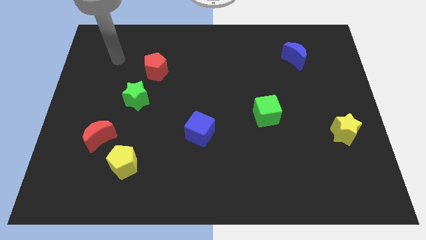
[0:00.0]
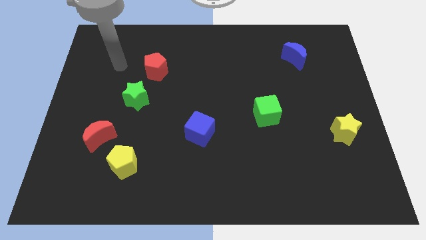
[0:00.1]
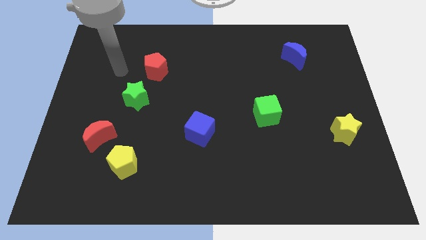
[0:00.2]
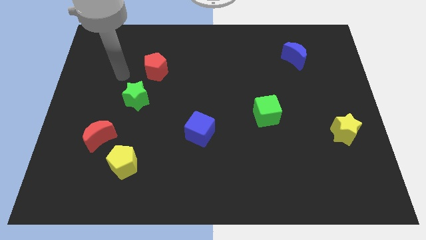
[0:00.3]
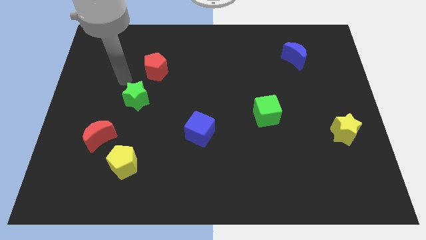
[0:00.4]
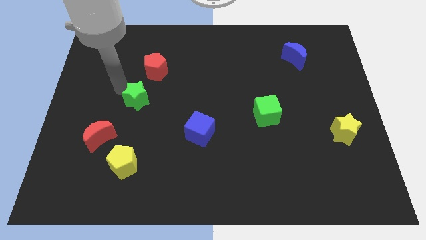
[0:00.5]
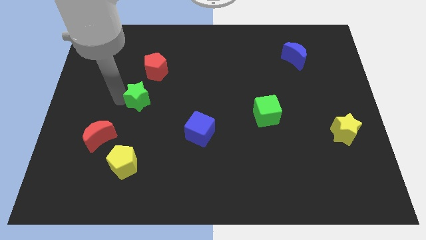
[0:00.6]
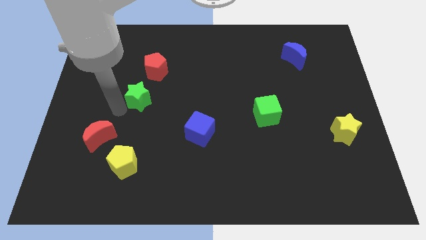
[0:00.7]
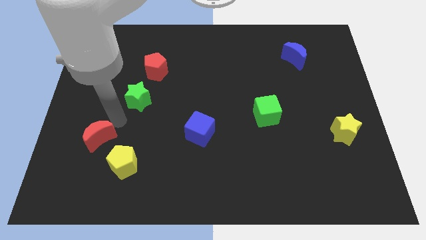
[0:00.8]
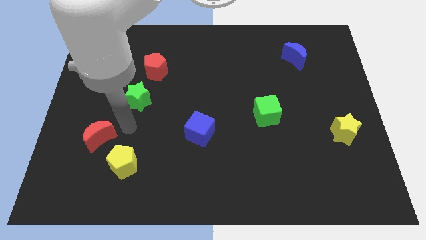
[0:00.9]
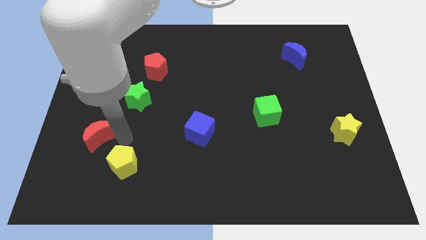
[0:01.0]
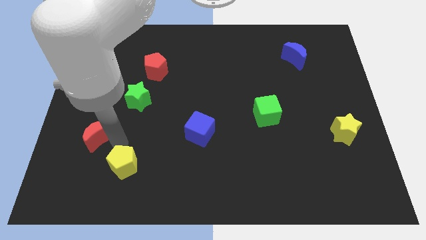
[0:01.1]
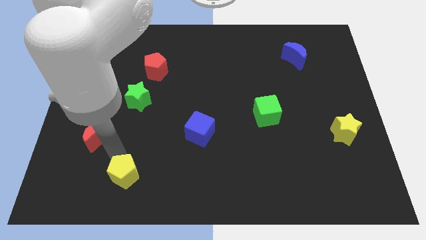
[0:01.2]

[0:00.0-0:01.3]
pull the red moon apart from the yellow pentagon

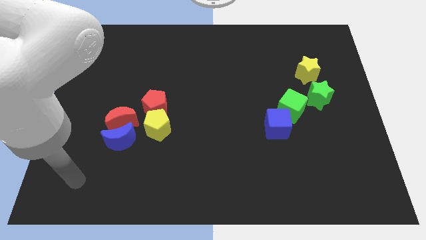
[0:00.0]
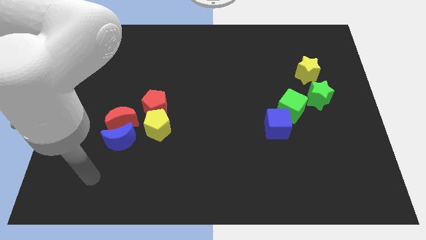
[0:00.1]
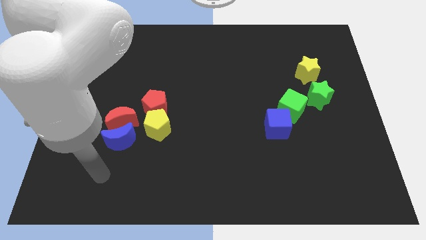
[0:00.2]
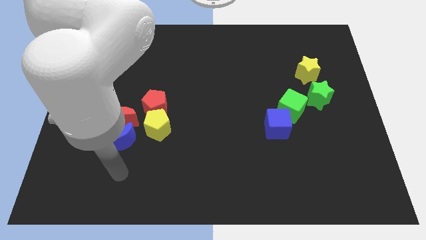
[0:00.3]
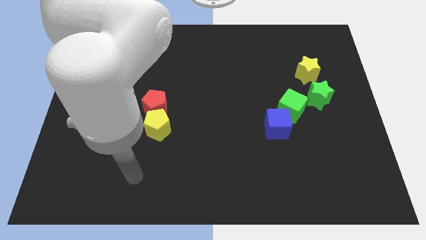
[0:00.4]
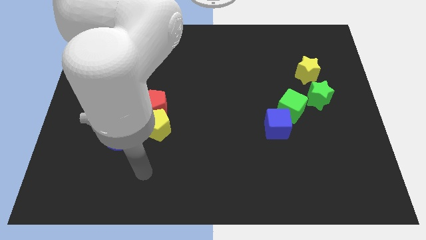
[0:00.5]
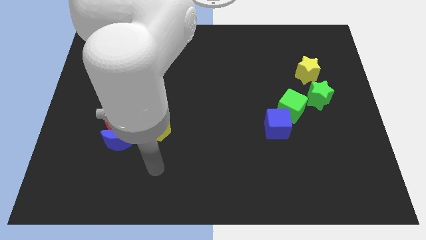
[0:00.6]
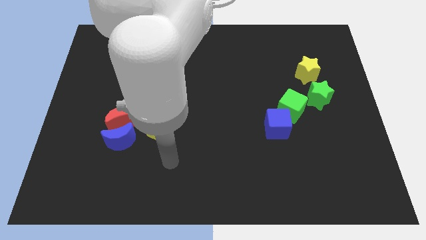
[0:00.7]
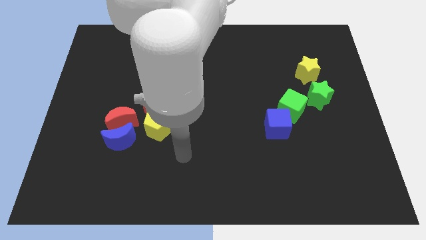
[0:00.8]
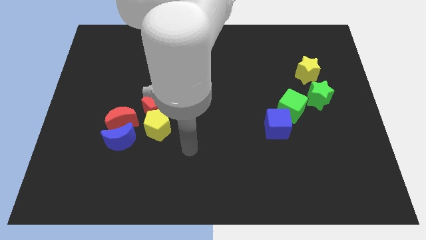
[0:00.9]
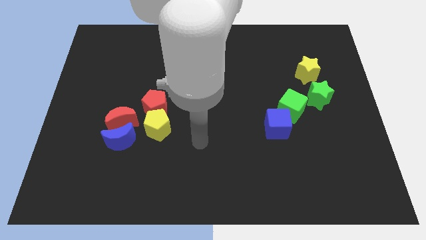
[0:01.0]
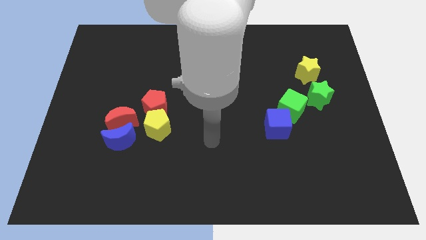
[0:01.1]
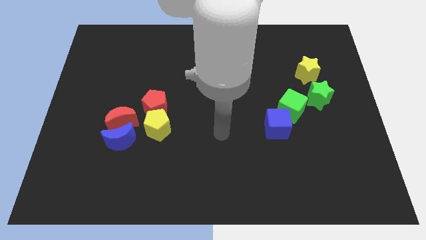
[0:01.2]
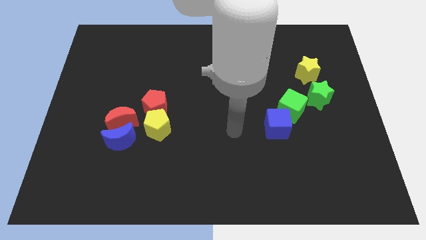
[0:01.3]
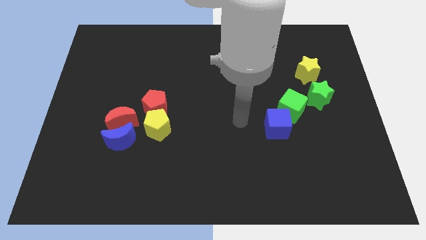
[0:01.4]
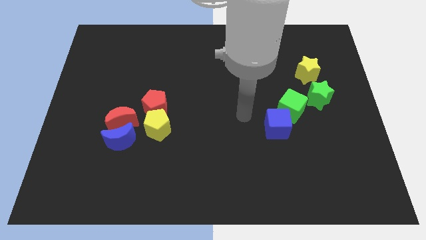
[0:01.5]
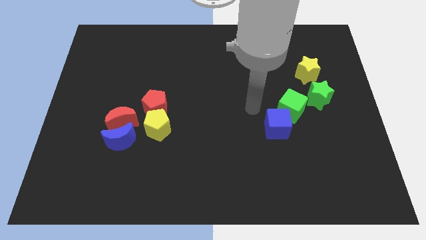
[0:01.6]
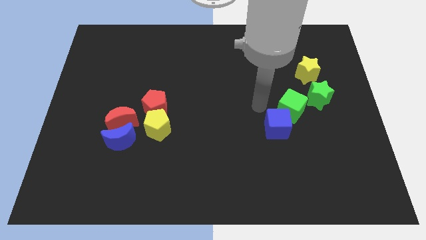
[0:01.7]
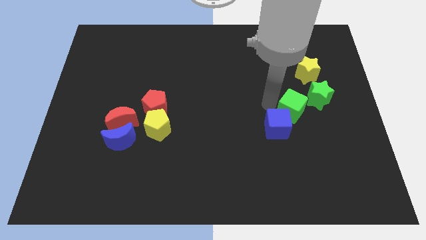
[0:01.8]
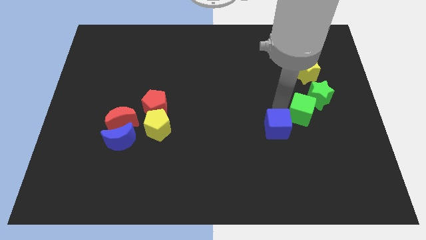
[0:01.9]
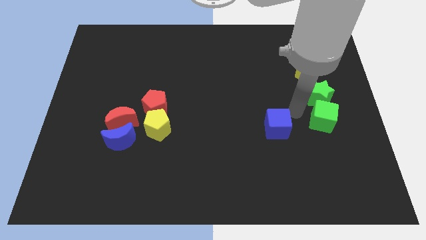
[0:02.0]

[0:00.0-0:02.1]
pull the blue cube apart from the green cube

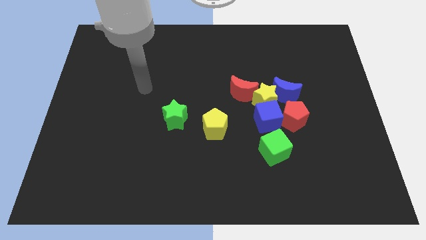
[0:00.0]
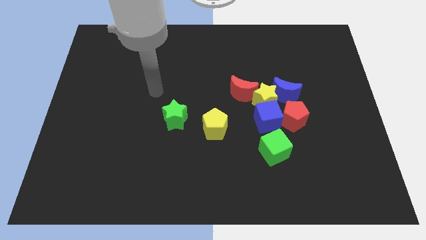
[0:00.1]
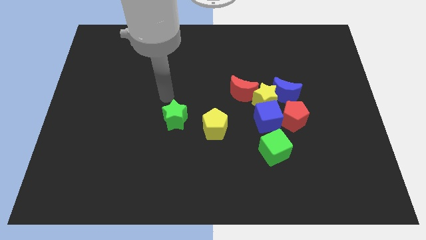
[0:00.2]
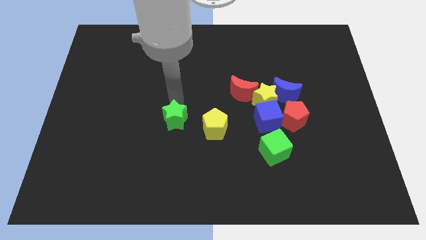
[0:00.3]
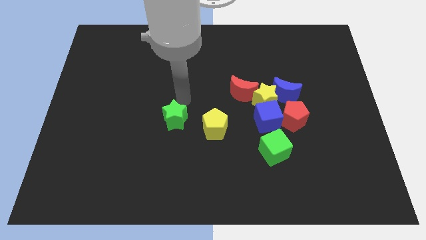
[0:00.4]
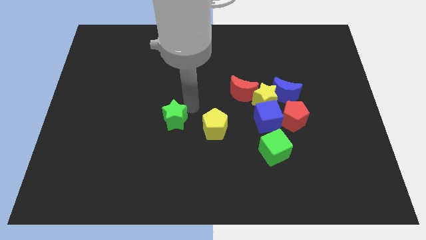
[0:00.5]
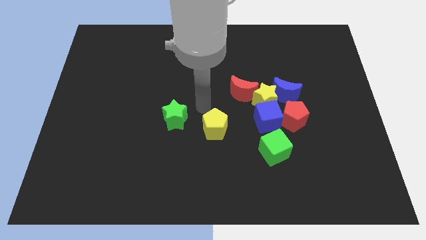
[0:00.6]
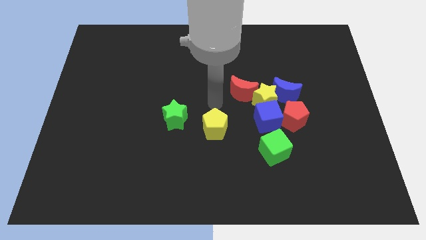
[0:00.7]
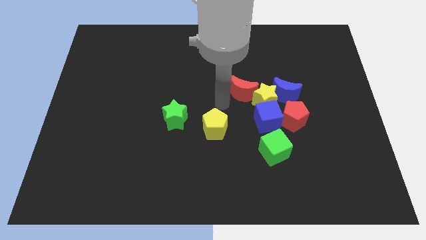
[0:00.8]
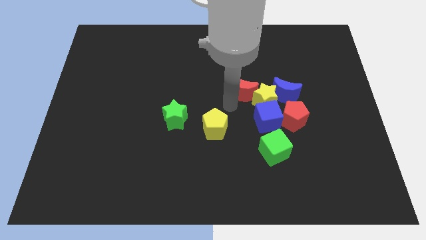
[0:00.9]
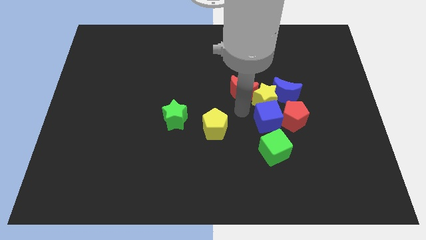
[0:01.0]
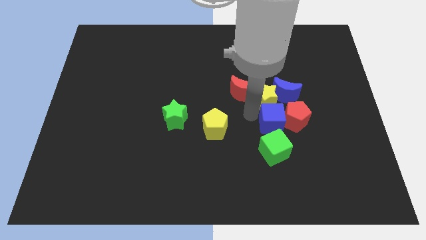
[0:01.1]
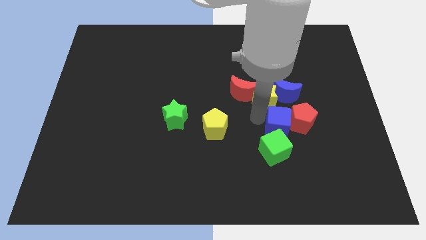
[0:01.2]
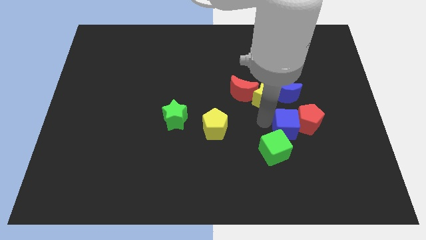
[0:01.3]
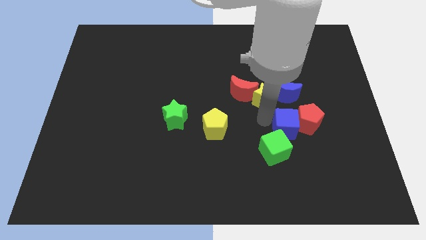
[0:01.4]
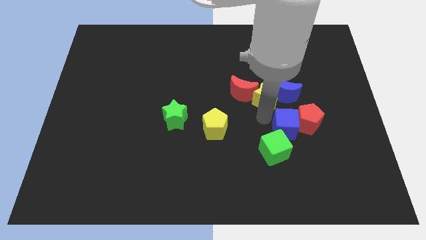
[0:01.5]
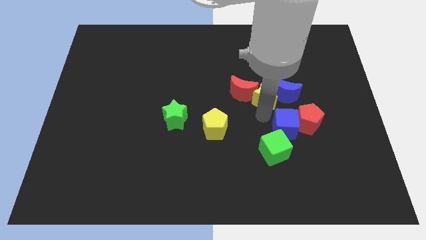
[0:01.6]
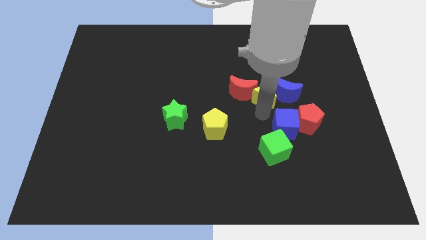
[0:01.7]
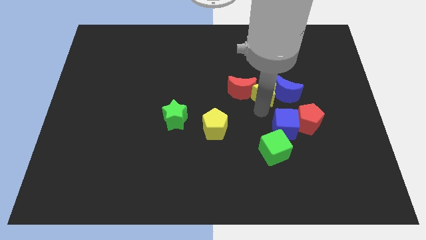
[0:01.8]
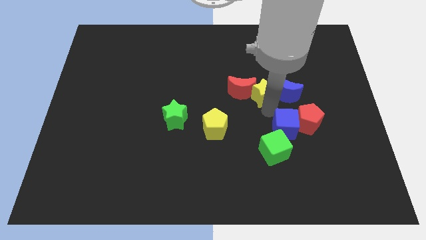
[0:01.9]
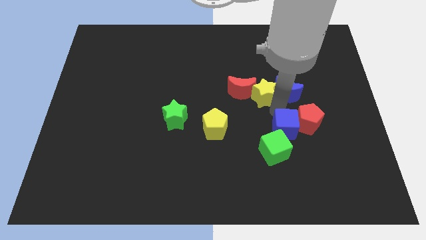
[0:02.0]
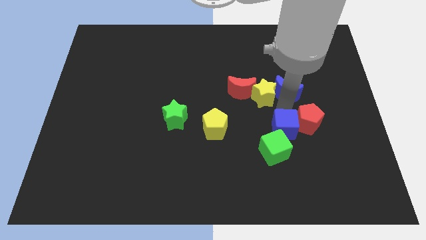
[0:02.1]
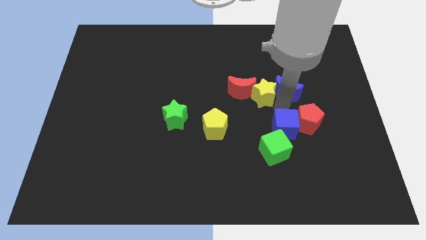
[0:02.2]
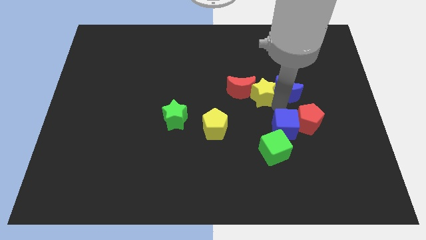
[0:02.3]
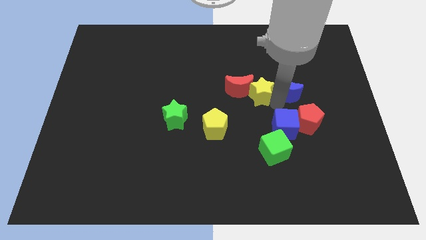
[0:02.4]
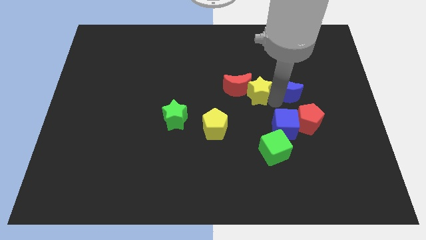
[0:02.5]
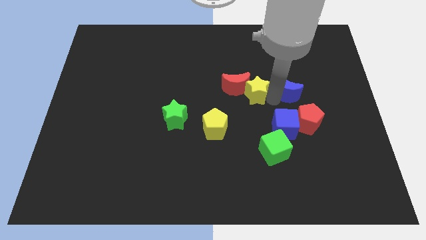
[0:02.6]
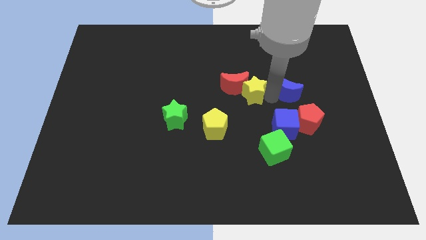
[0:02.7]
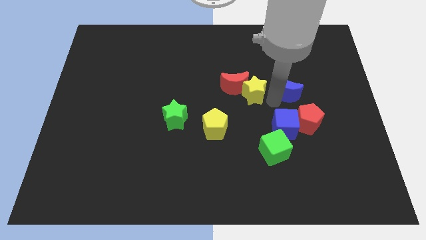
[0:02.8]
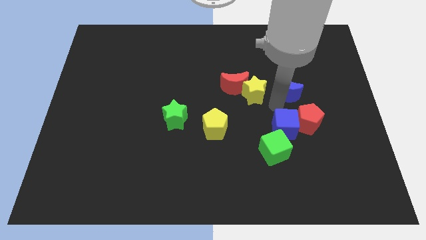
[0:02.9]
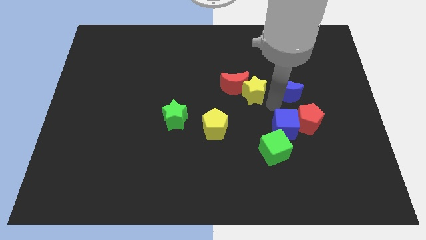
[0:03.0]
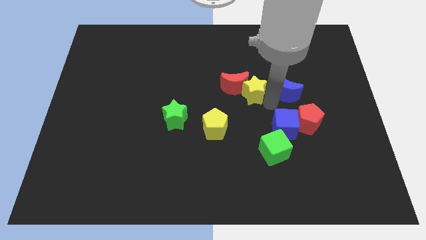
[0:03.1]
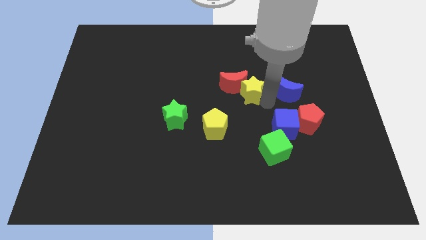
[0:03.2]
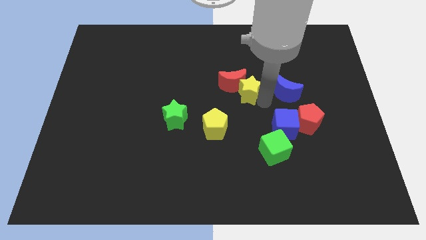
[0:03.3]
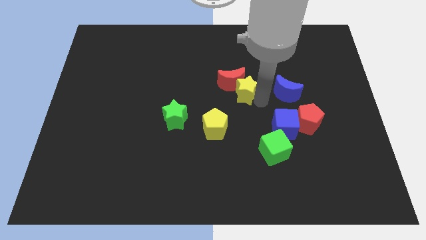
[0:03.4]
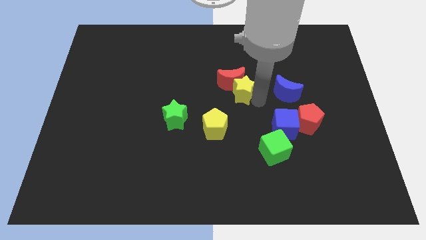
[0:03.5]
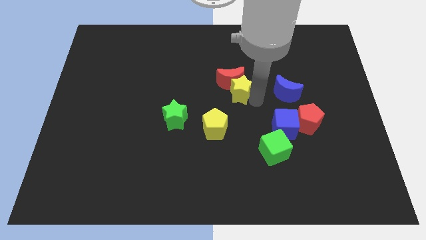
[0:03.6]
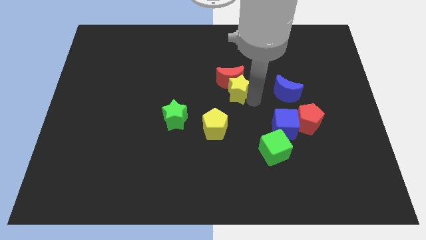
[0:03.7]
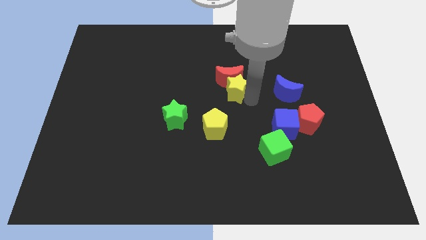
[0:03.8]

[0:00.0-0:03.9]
separate the yellow star from the group

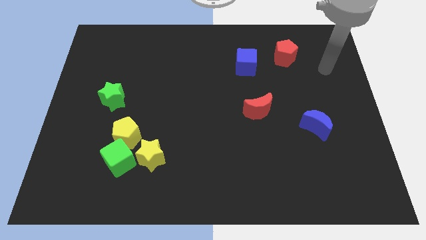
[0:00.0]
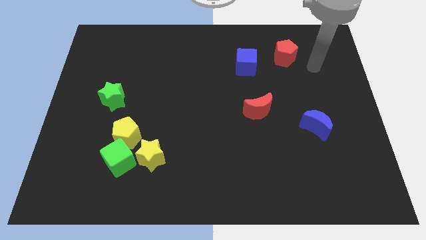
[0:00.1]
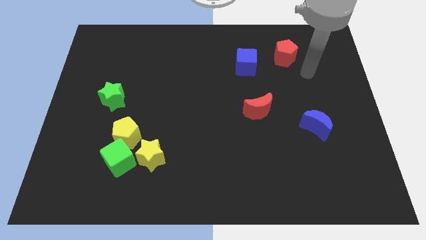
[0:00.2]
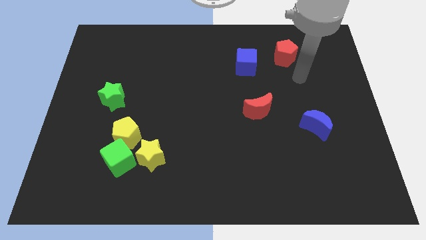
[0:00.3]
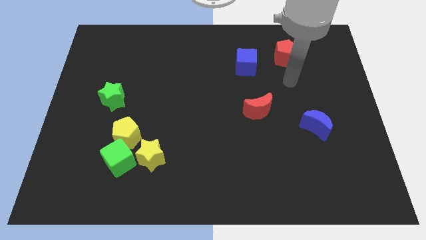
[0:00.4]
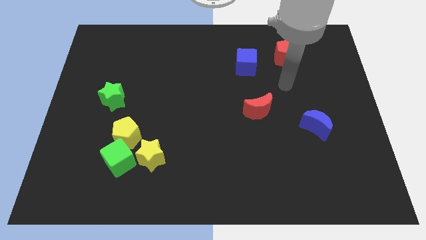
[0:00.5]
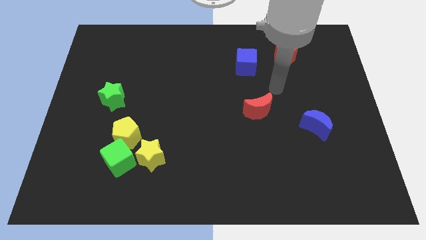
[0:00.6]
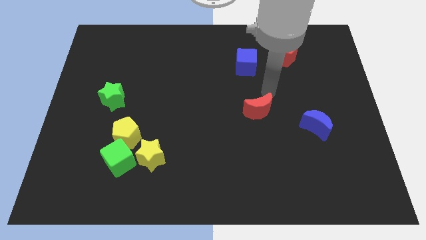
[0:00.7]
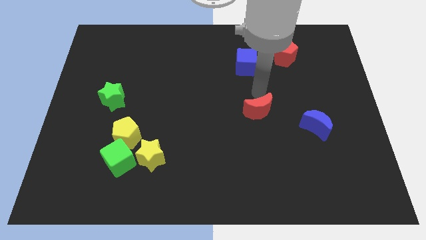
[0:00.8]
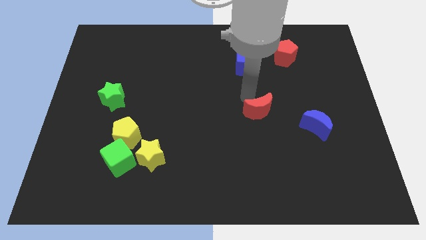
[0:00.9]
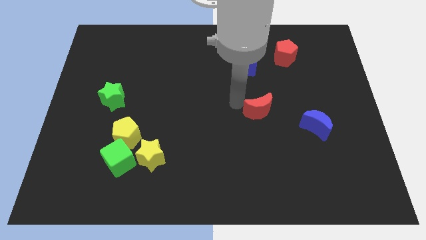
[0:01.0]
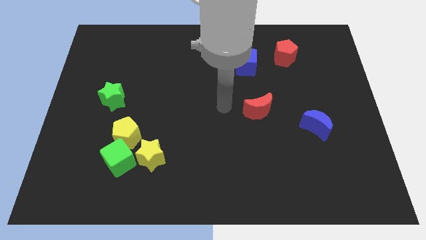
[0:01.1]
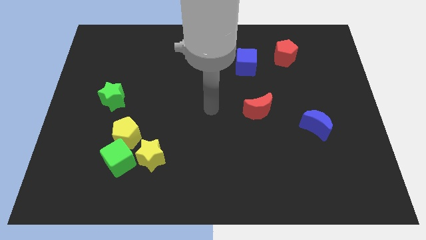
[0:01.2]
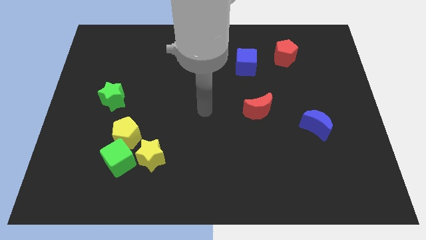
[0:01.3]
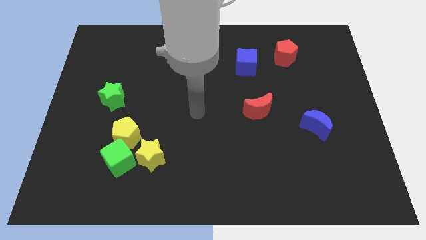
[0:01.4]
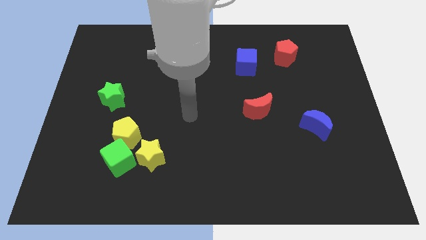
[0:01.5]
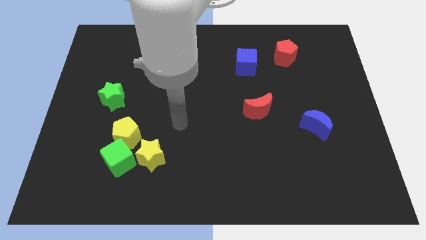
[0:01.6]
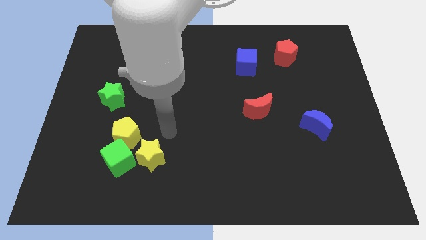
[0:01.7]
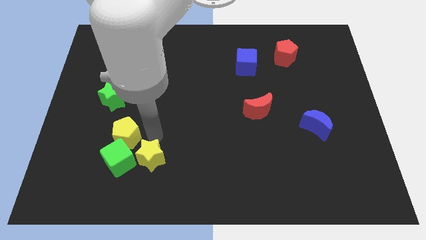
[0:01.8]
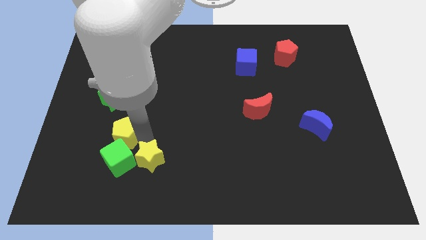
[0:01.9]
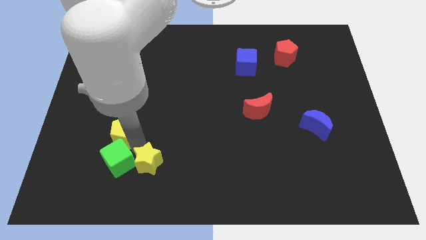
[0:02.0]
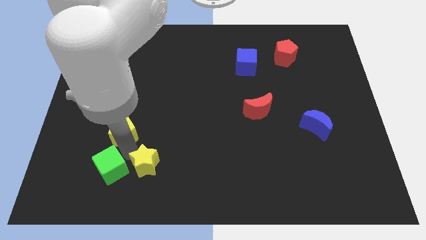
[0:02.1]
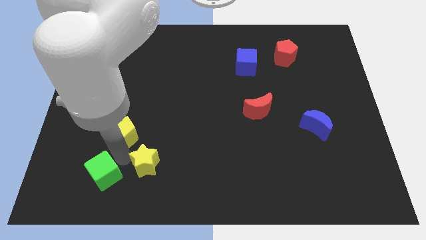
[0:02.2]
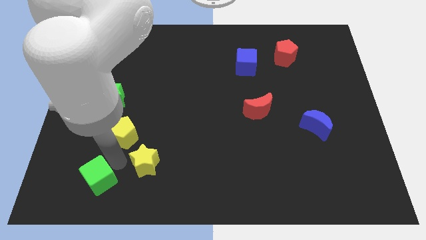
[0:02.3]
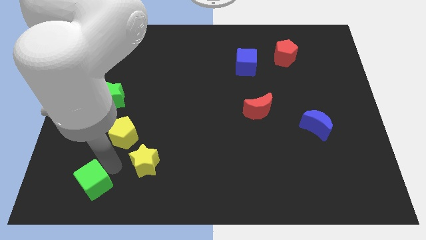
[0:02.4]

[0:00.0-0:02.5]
separate the green cube from the yellow pentagon and yellow star
